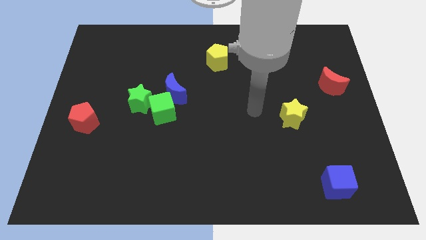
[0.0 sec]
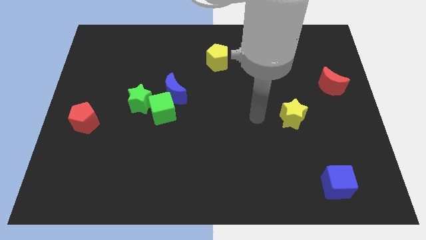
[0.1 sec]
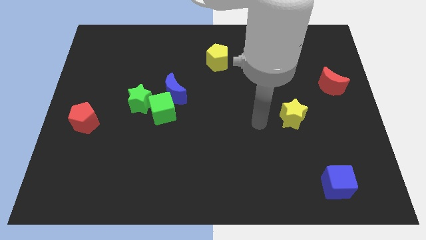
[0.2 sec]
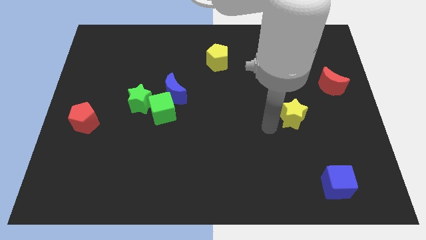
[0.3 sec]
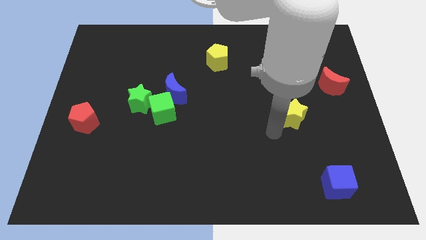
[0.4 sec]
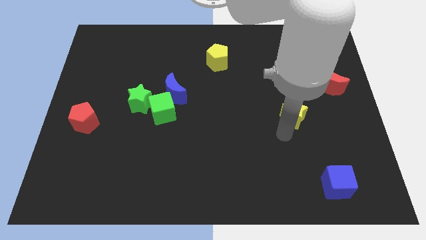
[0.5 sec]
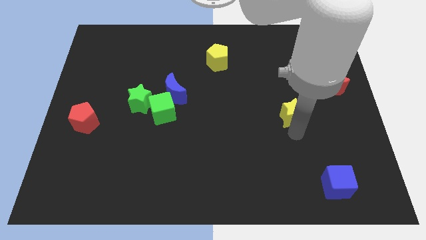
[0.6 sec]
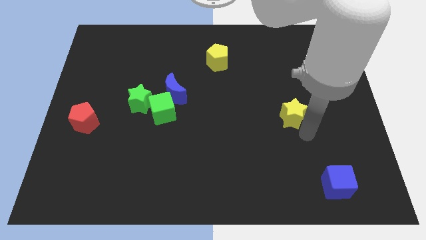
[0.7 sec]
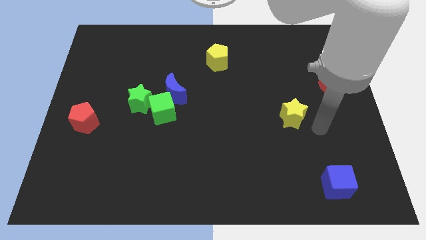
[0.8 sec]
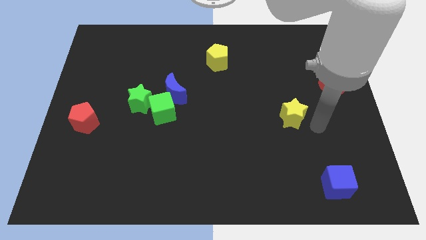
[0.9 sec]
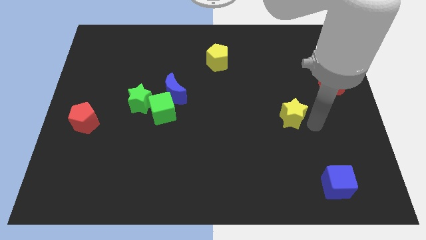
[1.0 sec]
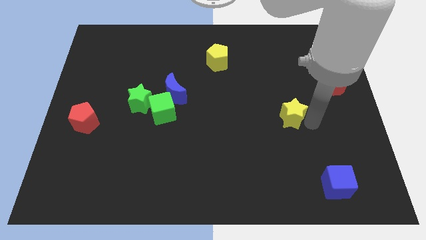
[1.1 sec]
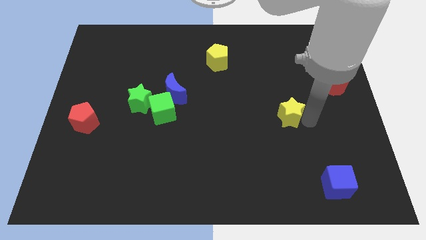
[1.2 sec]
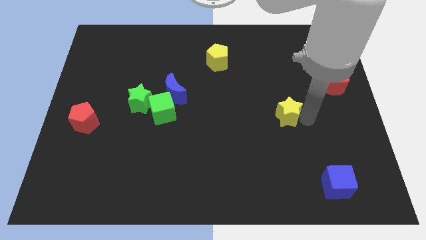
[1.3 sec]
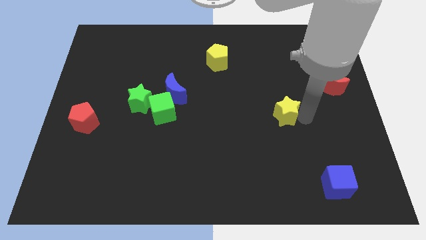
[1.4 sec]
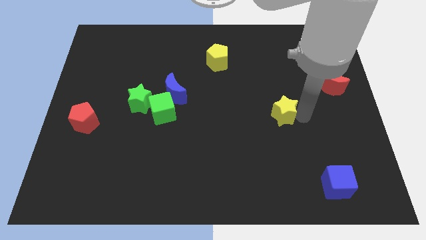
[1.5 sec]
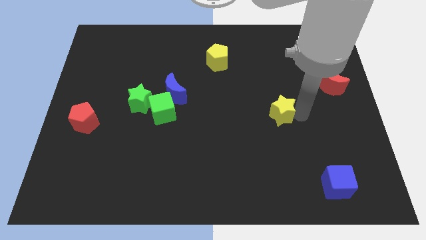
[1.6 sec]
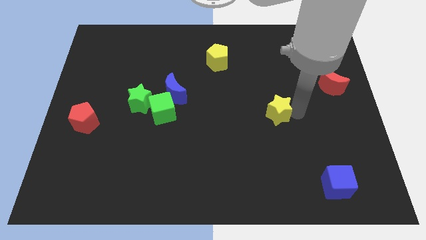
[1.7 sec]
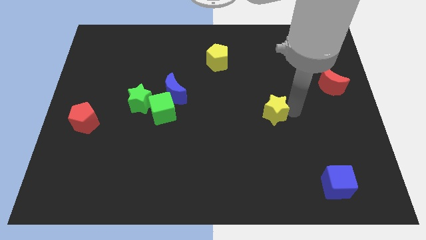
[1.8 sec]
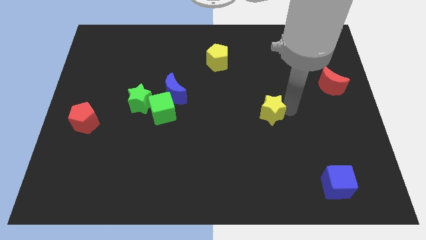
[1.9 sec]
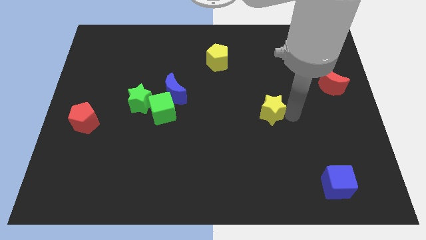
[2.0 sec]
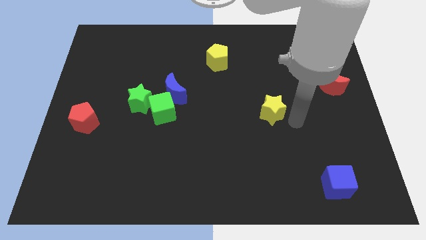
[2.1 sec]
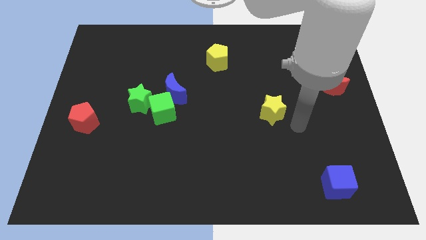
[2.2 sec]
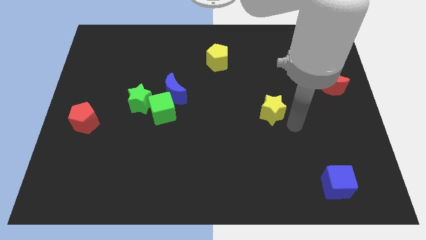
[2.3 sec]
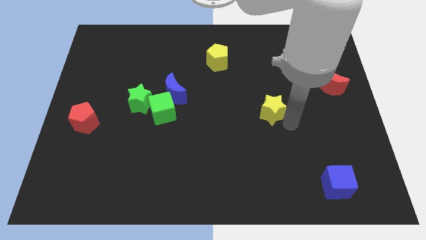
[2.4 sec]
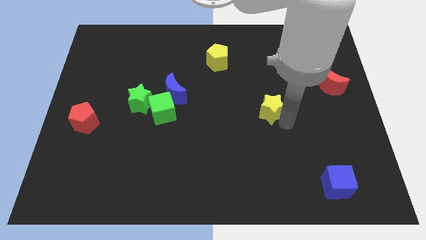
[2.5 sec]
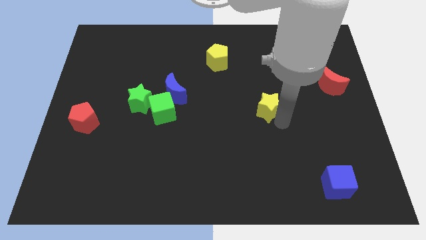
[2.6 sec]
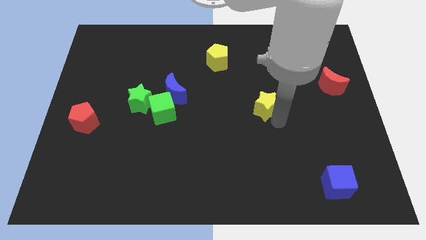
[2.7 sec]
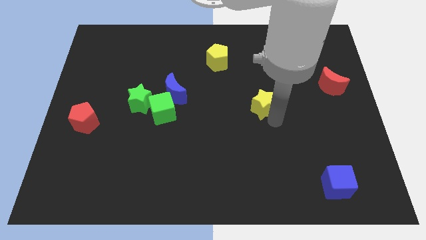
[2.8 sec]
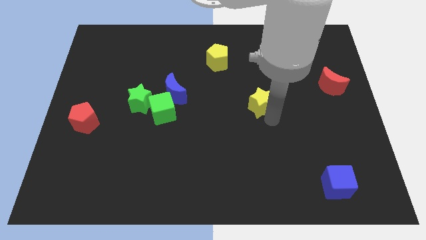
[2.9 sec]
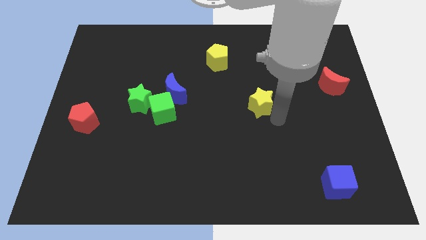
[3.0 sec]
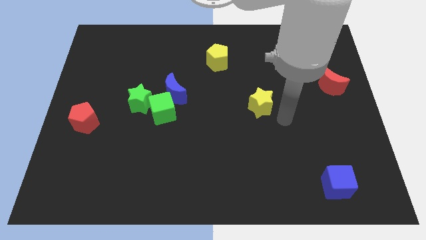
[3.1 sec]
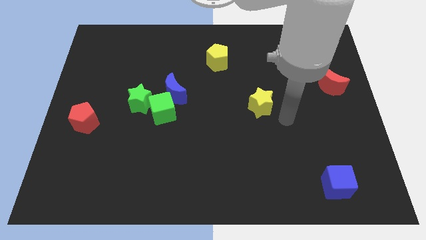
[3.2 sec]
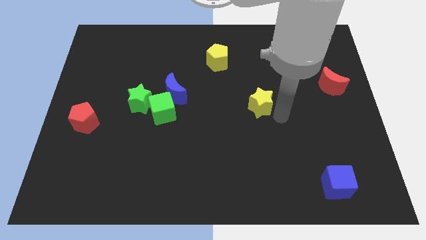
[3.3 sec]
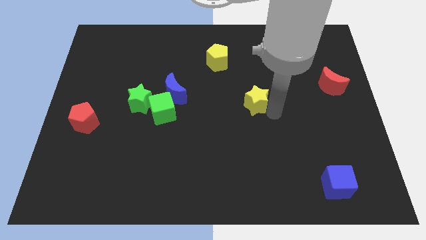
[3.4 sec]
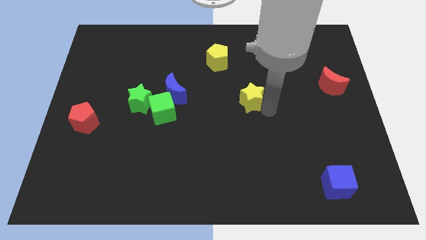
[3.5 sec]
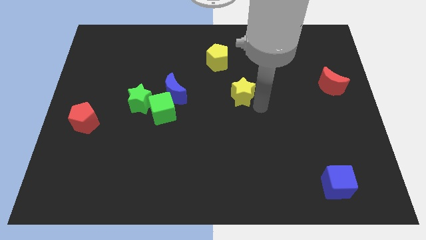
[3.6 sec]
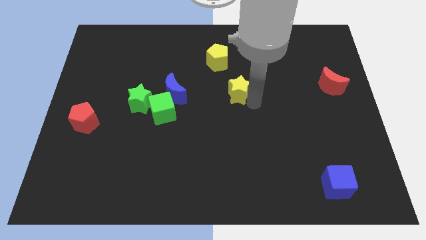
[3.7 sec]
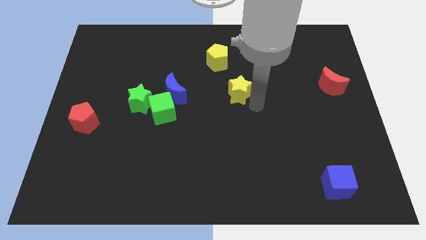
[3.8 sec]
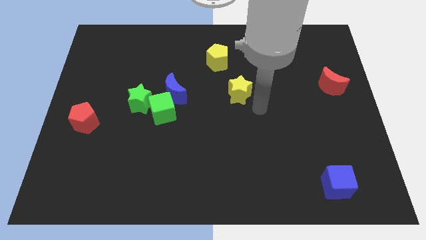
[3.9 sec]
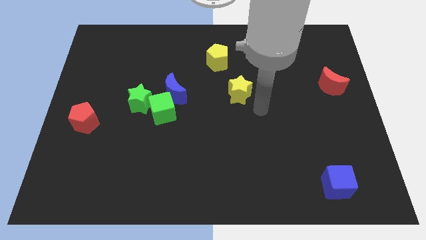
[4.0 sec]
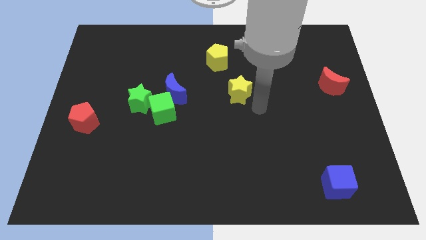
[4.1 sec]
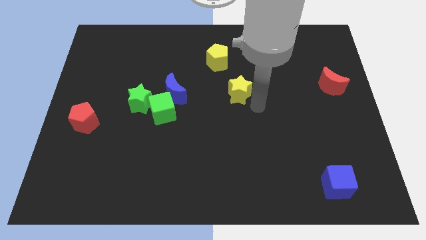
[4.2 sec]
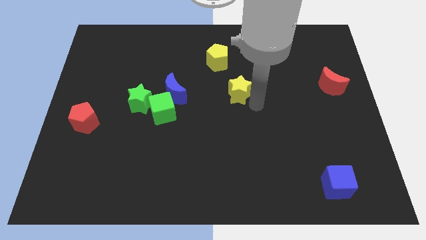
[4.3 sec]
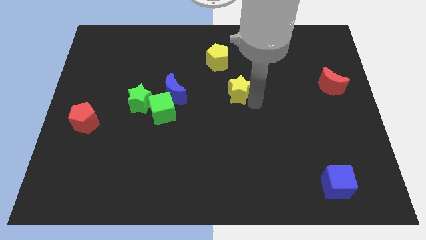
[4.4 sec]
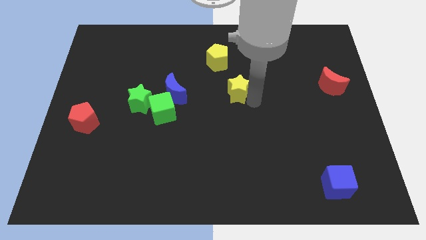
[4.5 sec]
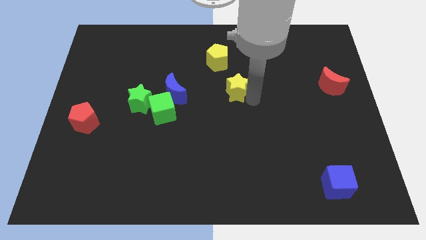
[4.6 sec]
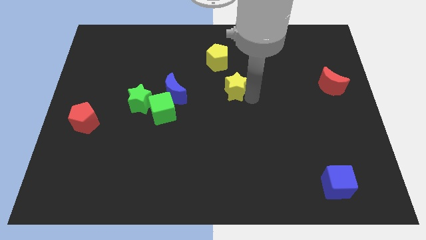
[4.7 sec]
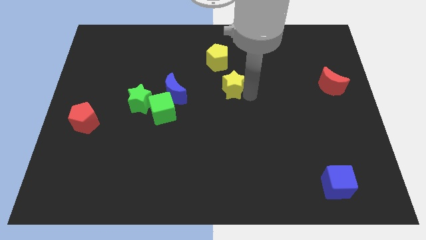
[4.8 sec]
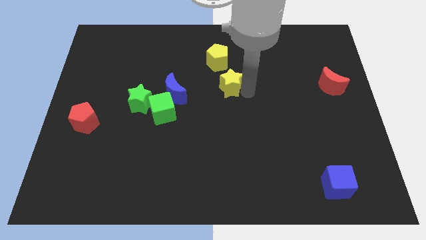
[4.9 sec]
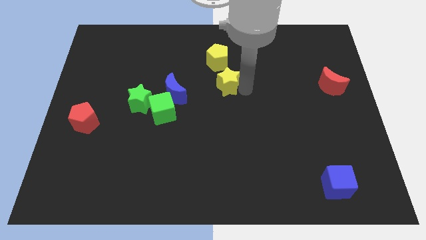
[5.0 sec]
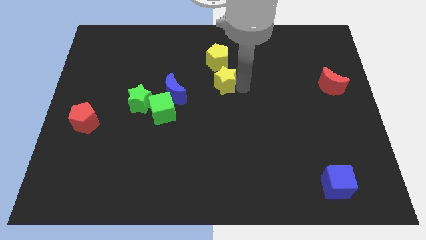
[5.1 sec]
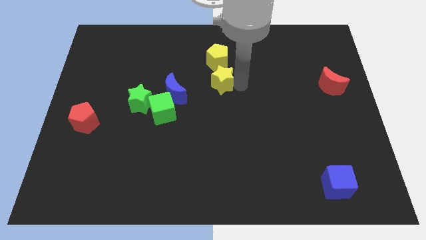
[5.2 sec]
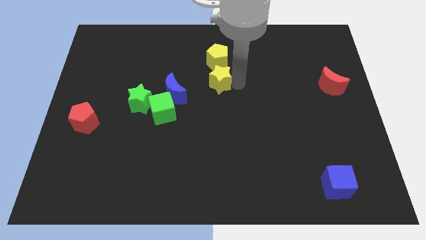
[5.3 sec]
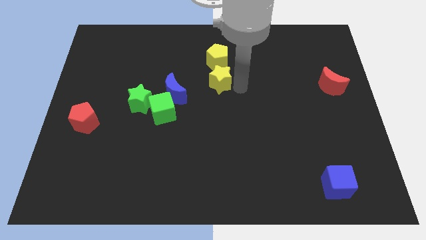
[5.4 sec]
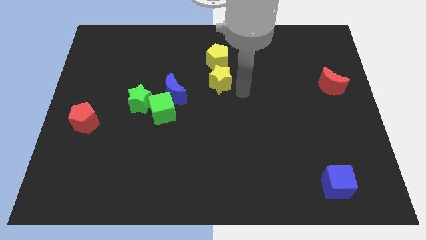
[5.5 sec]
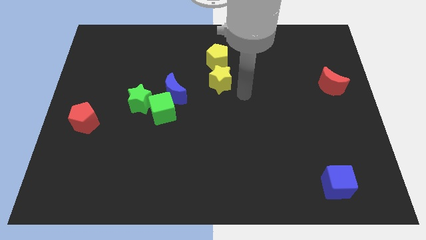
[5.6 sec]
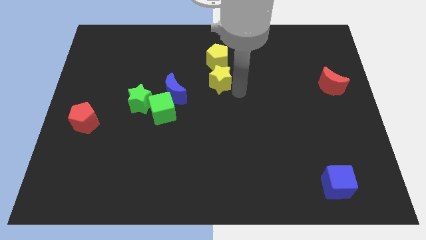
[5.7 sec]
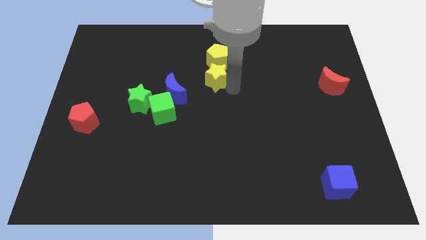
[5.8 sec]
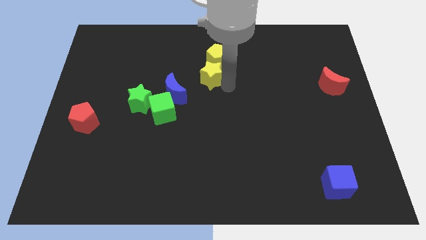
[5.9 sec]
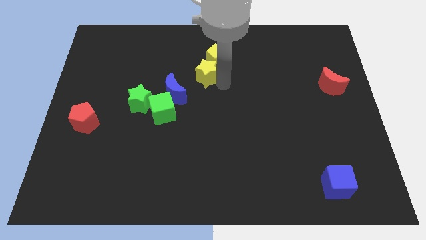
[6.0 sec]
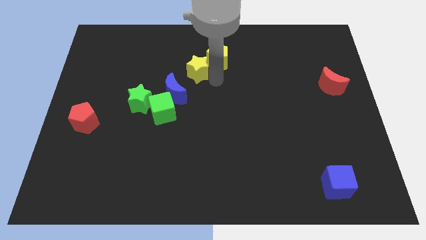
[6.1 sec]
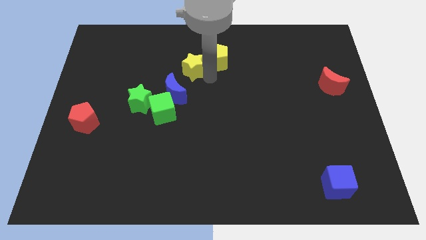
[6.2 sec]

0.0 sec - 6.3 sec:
slide the yellow star above the blue moon

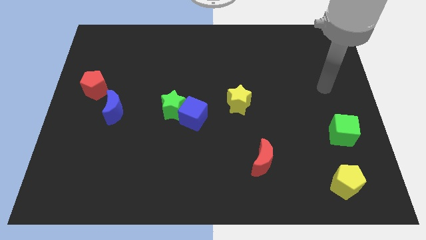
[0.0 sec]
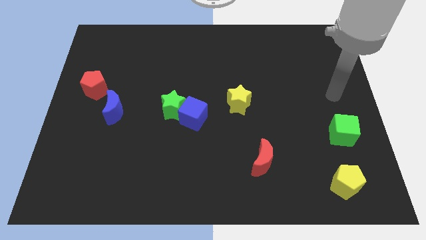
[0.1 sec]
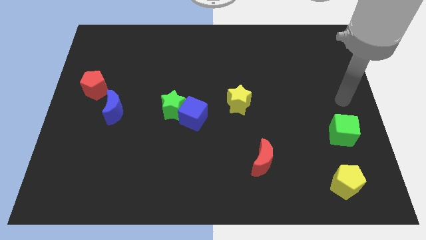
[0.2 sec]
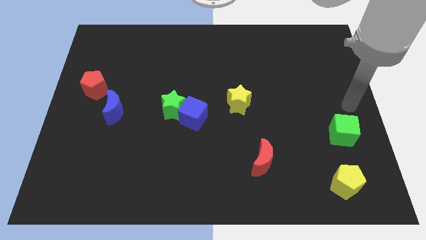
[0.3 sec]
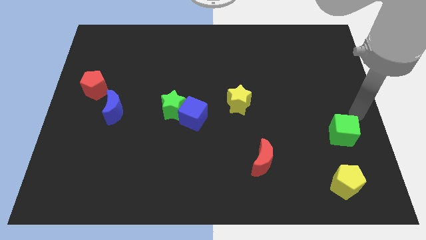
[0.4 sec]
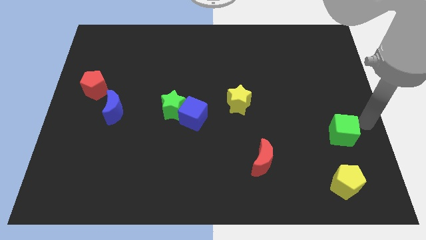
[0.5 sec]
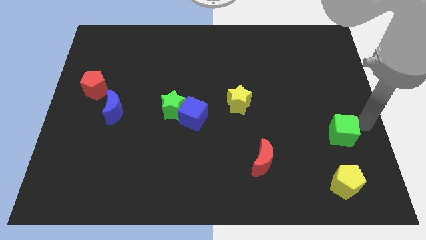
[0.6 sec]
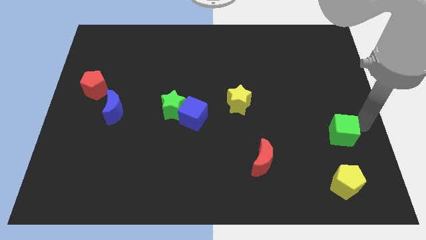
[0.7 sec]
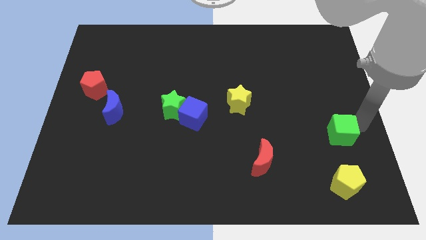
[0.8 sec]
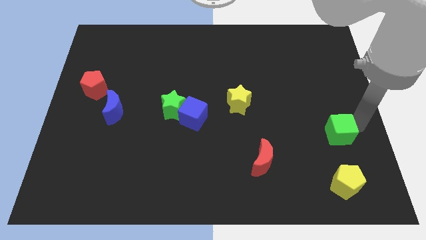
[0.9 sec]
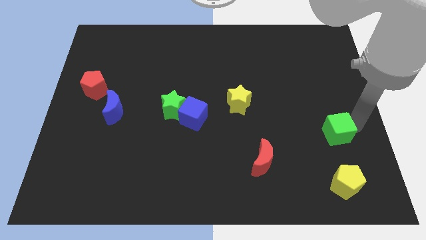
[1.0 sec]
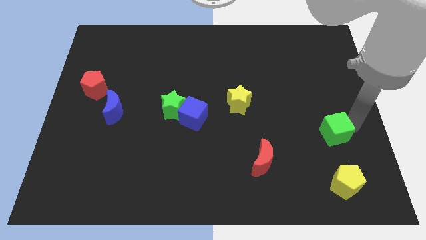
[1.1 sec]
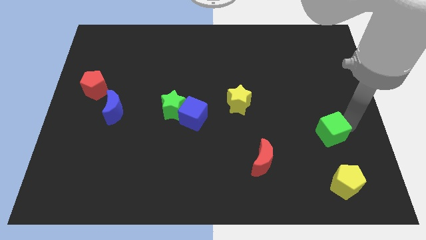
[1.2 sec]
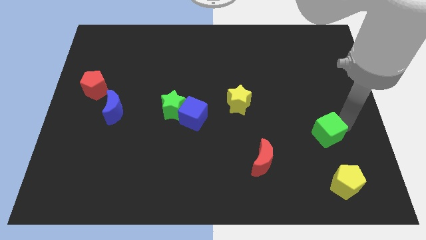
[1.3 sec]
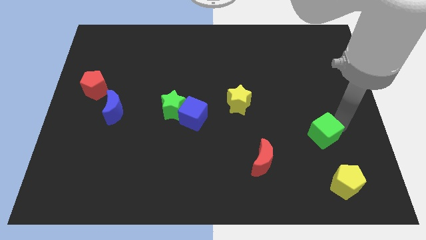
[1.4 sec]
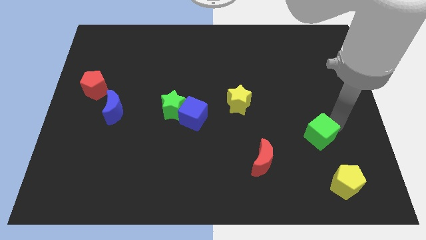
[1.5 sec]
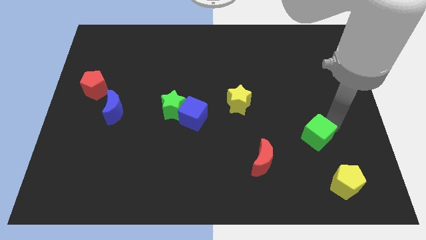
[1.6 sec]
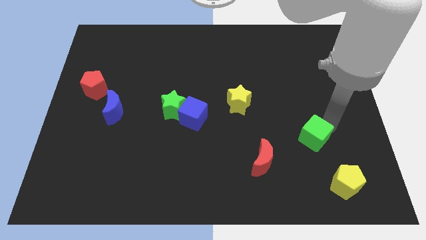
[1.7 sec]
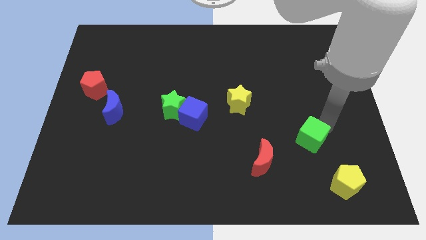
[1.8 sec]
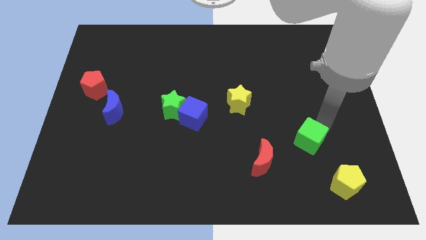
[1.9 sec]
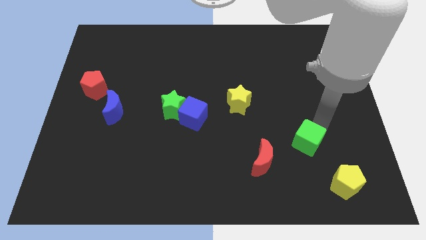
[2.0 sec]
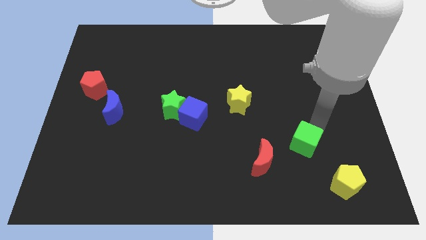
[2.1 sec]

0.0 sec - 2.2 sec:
put the green cube to the right of the red moon
